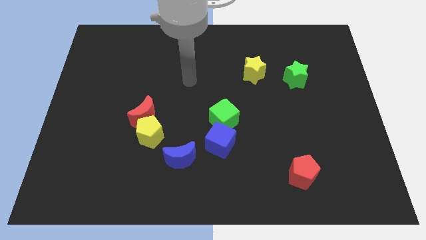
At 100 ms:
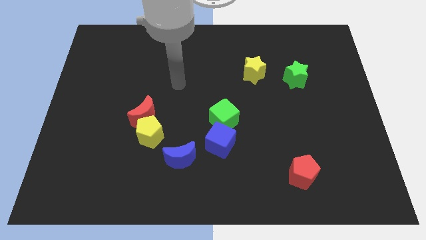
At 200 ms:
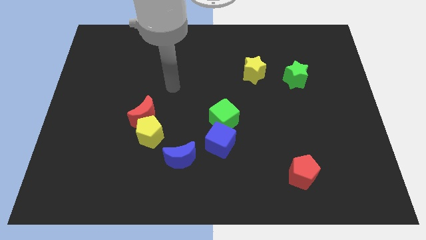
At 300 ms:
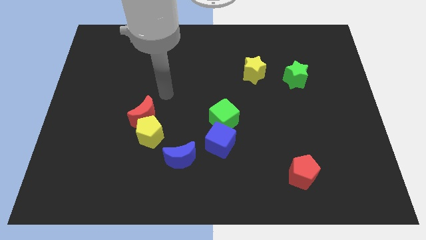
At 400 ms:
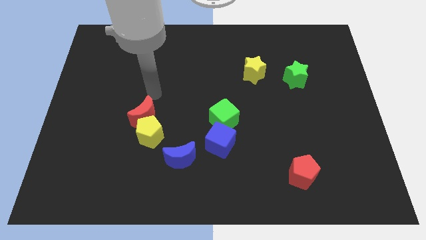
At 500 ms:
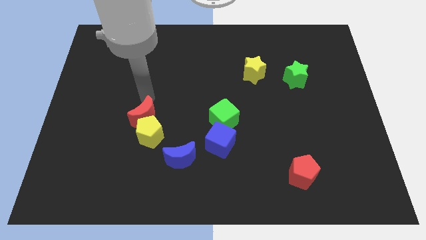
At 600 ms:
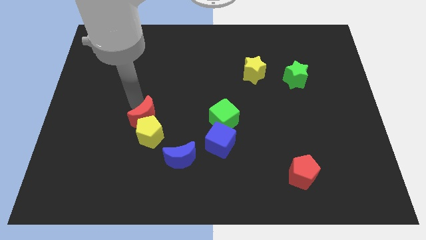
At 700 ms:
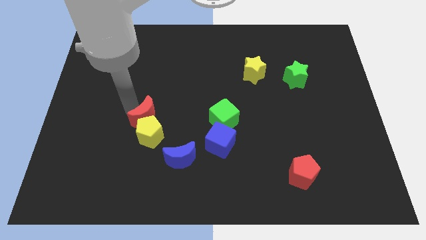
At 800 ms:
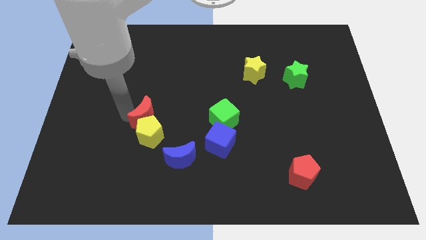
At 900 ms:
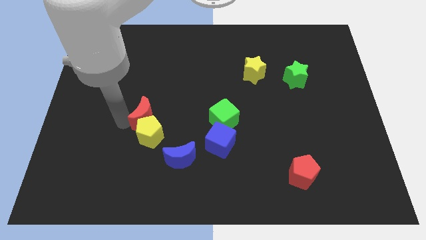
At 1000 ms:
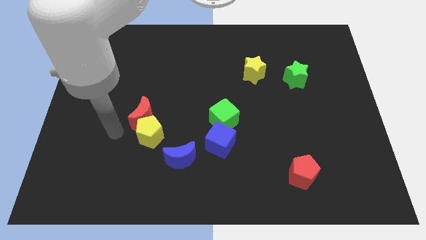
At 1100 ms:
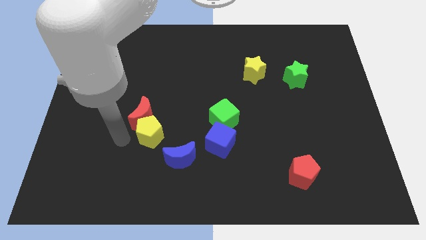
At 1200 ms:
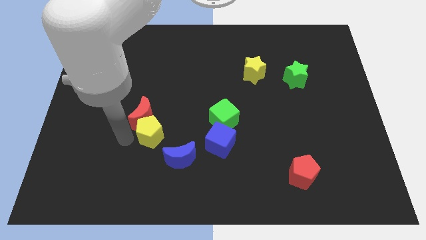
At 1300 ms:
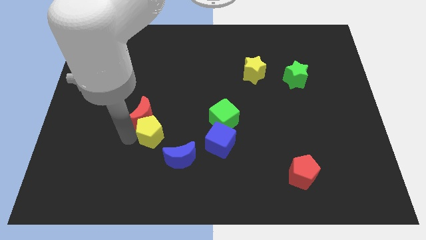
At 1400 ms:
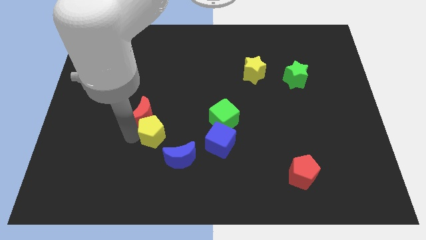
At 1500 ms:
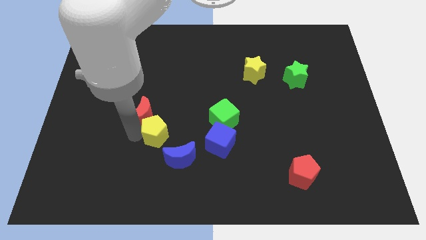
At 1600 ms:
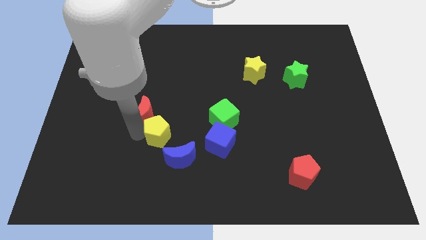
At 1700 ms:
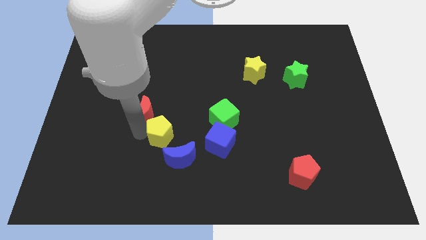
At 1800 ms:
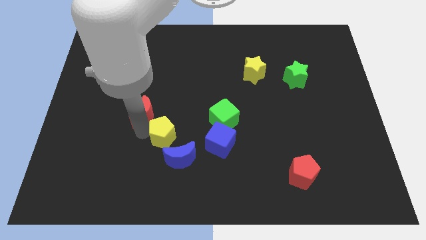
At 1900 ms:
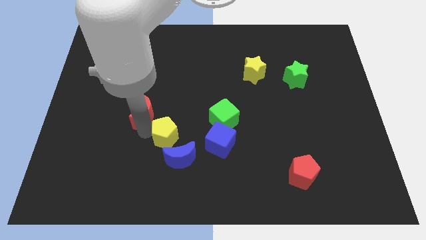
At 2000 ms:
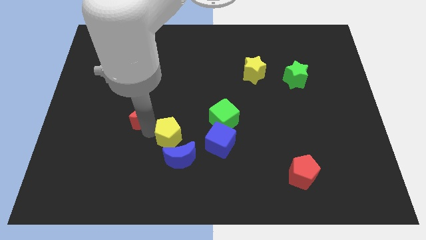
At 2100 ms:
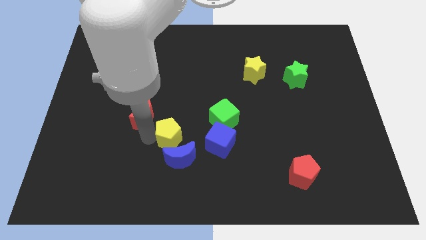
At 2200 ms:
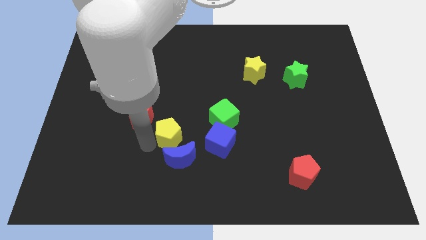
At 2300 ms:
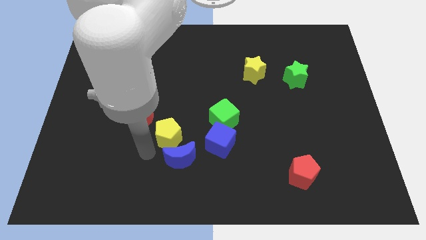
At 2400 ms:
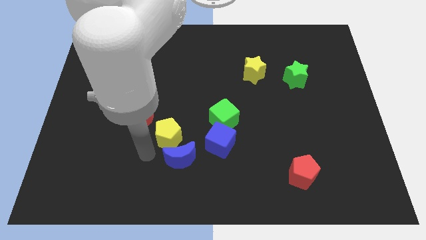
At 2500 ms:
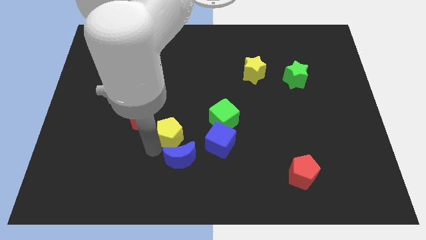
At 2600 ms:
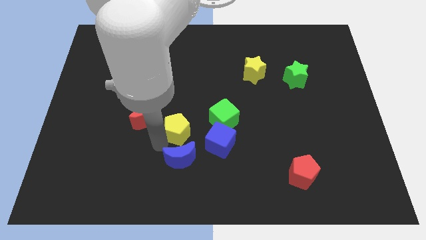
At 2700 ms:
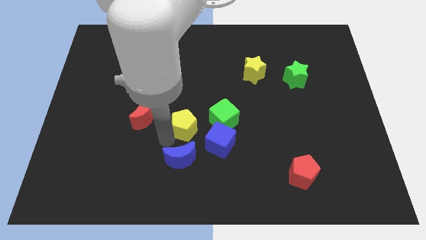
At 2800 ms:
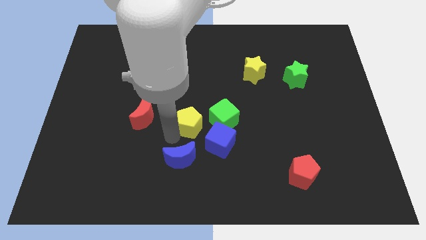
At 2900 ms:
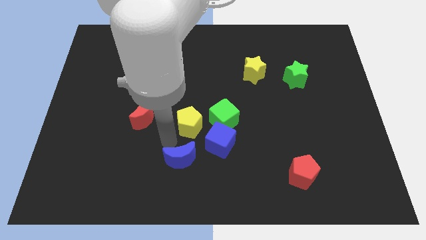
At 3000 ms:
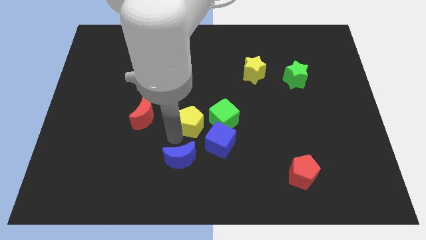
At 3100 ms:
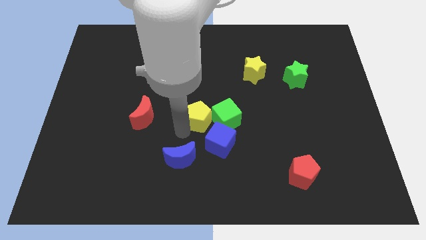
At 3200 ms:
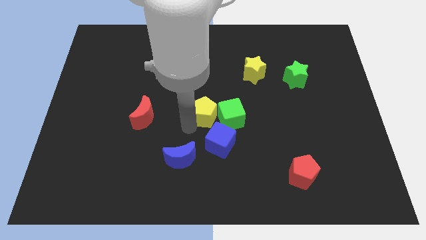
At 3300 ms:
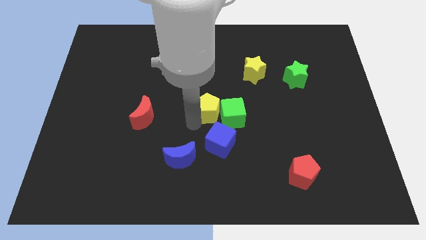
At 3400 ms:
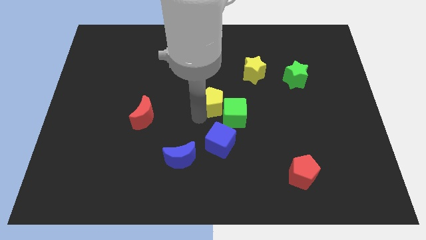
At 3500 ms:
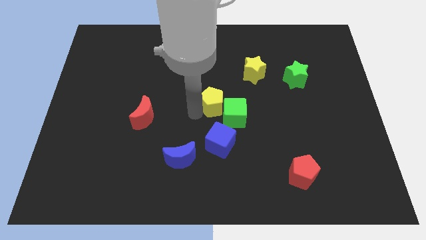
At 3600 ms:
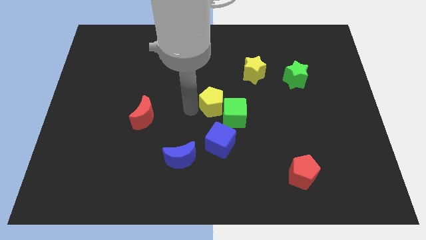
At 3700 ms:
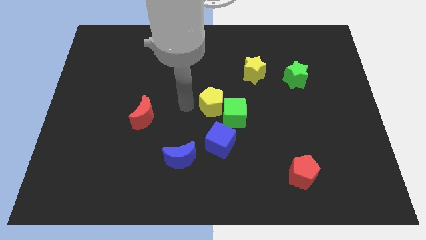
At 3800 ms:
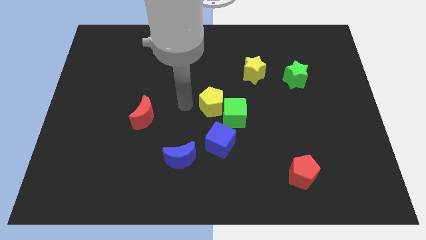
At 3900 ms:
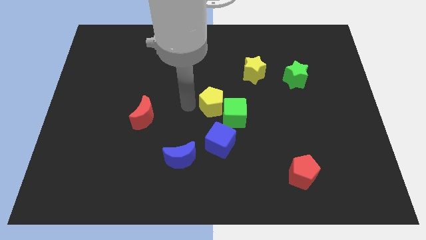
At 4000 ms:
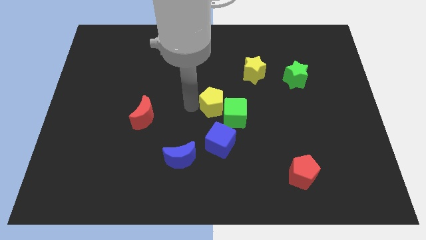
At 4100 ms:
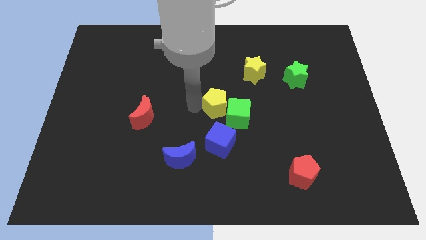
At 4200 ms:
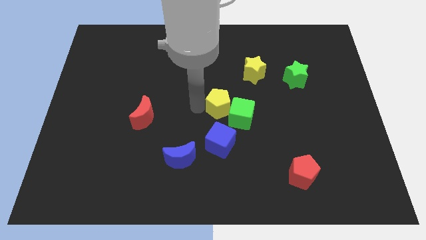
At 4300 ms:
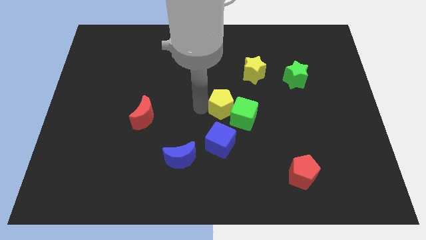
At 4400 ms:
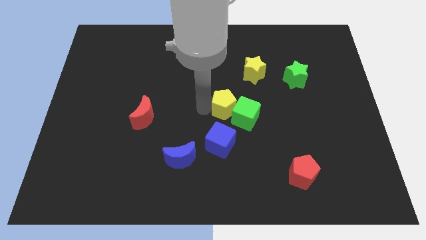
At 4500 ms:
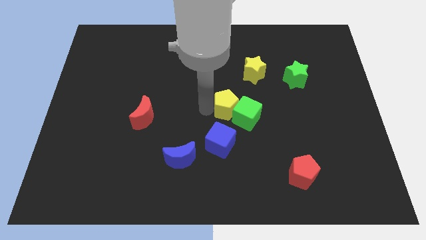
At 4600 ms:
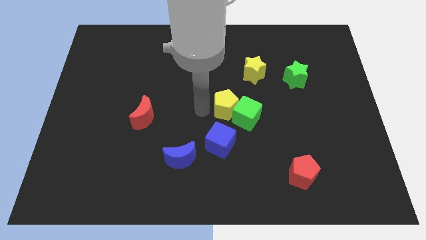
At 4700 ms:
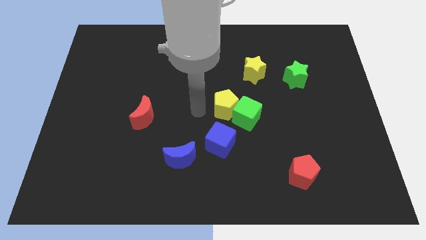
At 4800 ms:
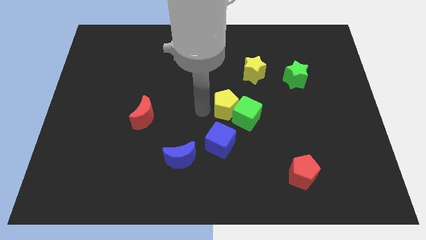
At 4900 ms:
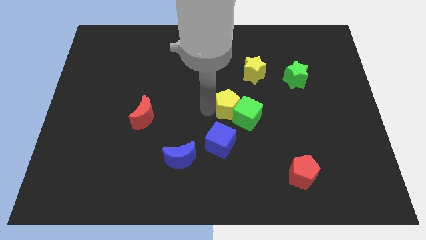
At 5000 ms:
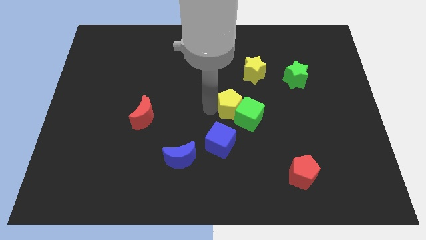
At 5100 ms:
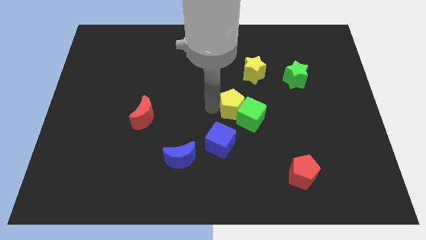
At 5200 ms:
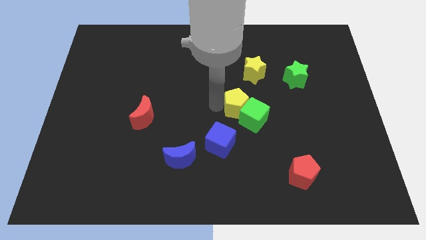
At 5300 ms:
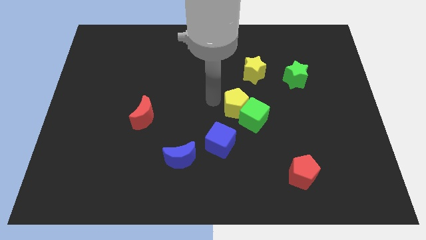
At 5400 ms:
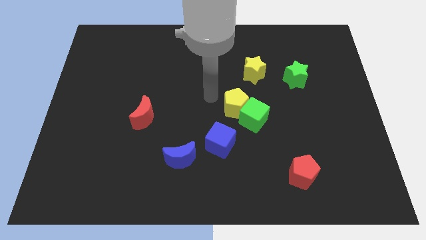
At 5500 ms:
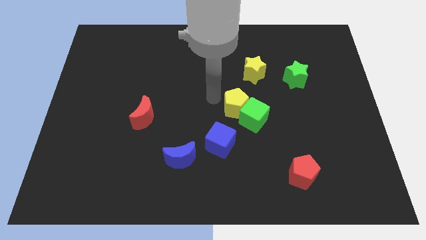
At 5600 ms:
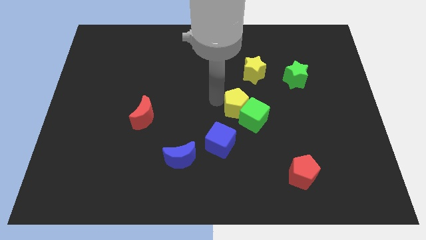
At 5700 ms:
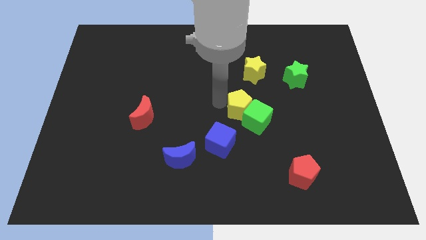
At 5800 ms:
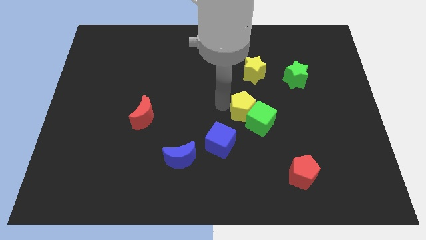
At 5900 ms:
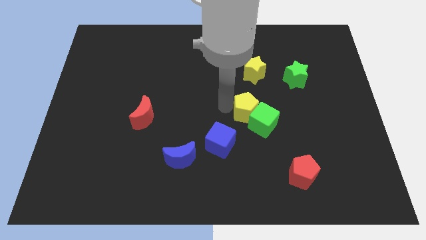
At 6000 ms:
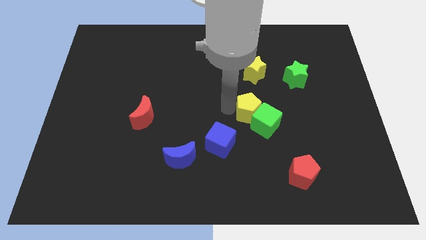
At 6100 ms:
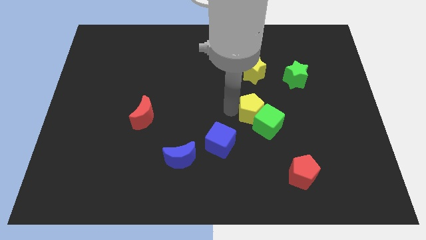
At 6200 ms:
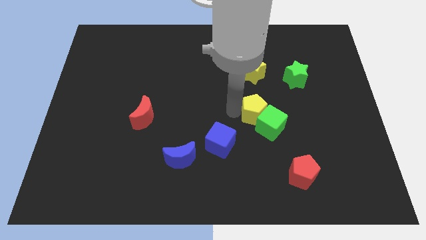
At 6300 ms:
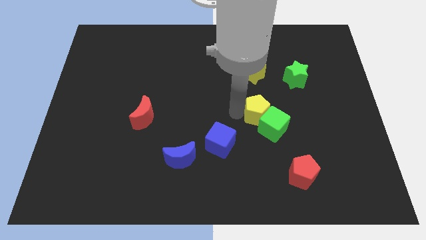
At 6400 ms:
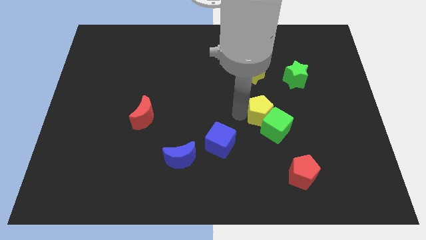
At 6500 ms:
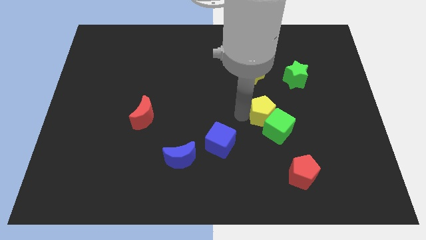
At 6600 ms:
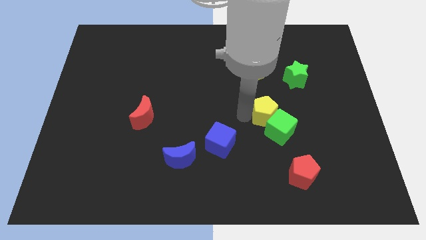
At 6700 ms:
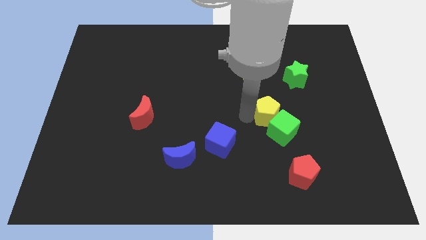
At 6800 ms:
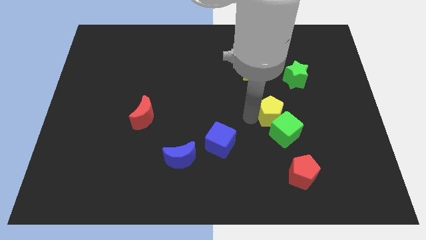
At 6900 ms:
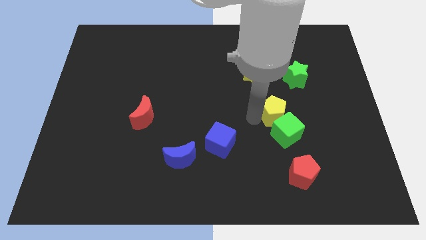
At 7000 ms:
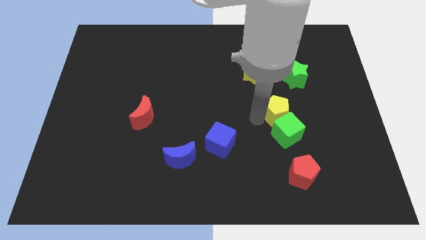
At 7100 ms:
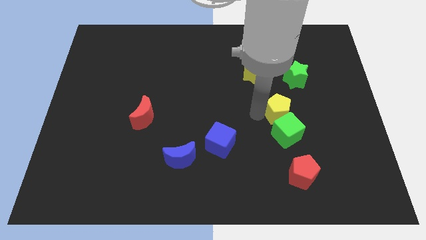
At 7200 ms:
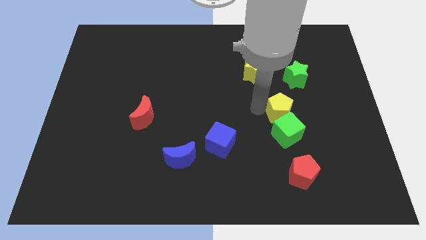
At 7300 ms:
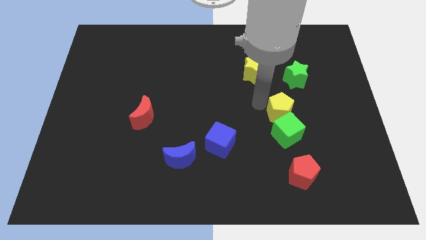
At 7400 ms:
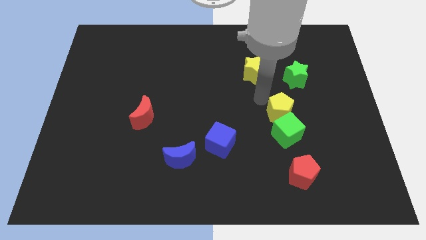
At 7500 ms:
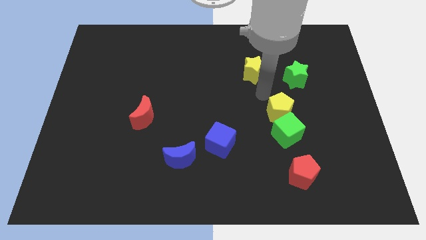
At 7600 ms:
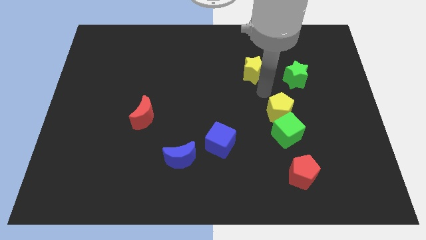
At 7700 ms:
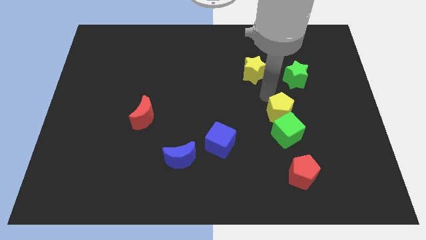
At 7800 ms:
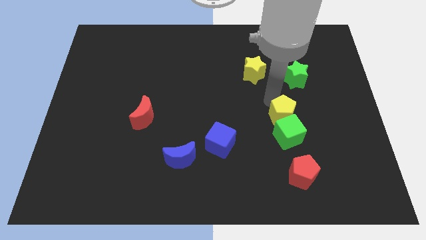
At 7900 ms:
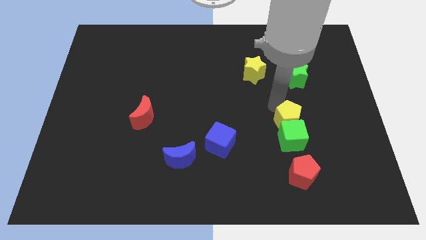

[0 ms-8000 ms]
push the yellow pentagon above the red pentagon
